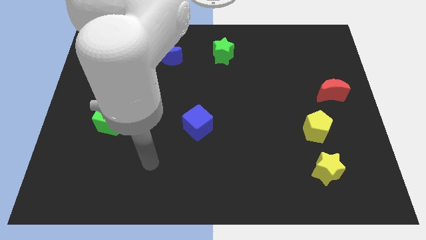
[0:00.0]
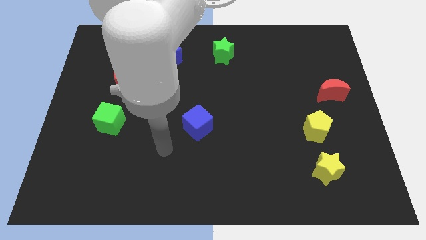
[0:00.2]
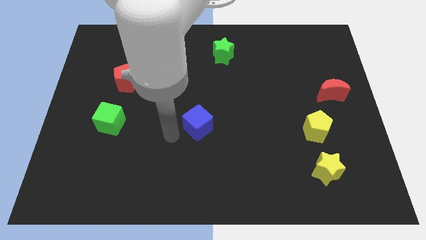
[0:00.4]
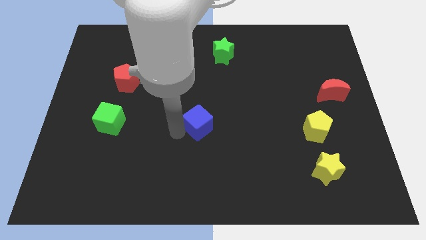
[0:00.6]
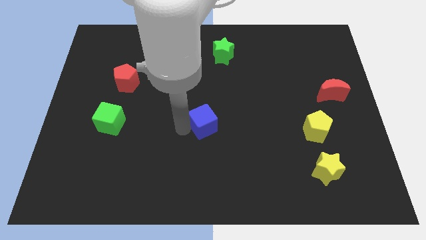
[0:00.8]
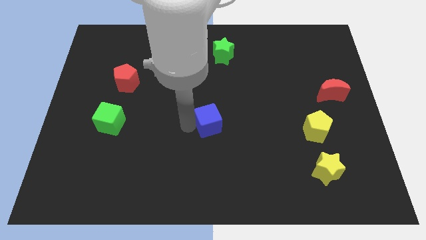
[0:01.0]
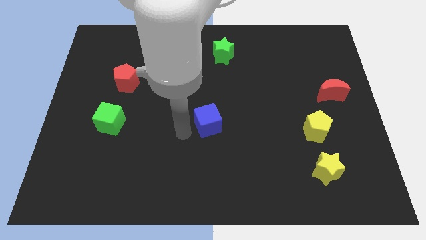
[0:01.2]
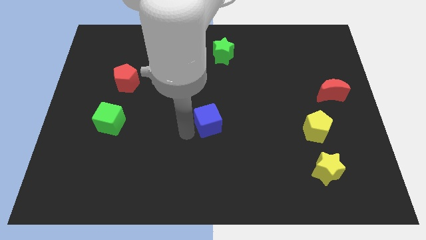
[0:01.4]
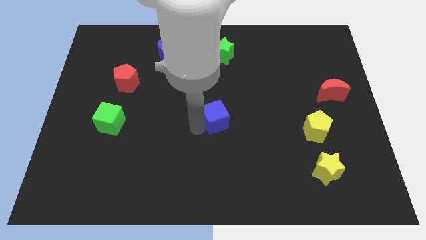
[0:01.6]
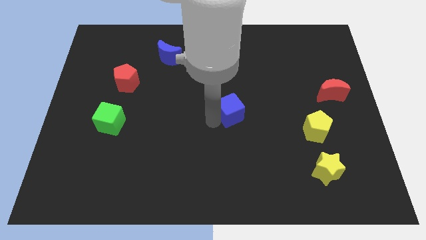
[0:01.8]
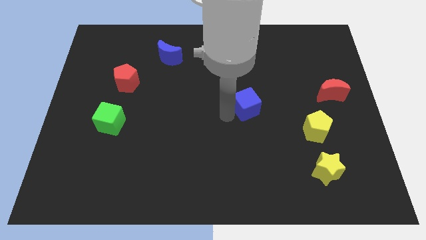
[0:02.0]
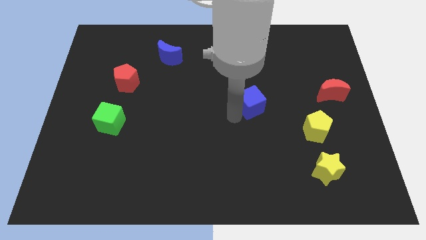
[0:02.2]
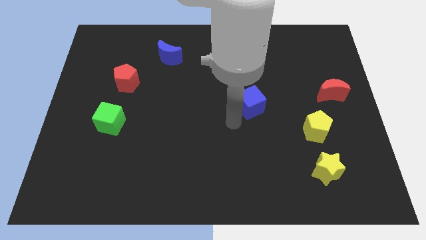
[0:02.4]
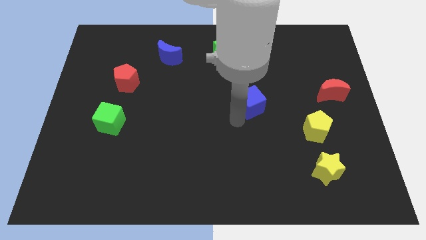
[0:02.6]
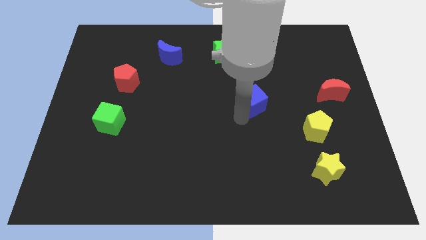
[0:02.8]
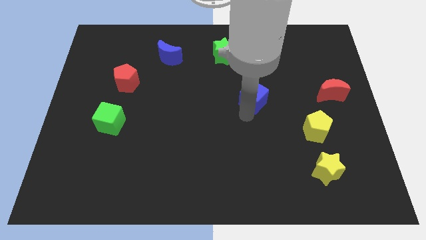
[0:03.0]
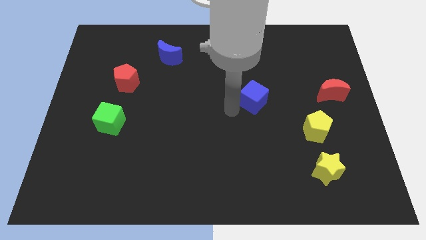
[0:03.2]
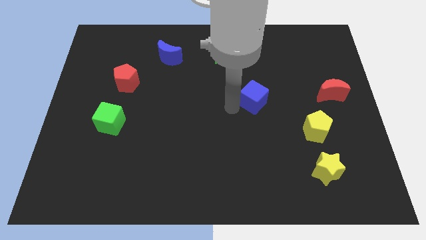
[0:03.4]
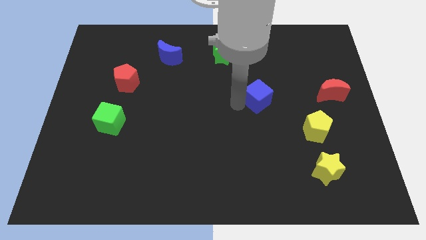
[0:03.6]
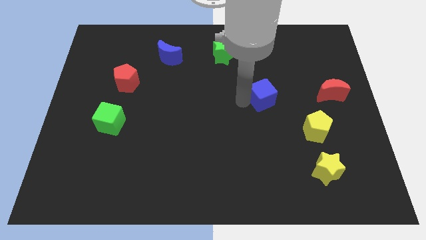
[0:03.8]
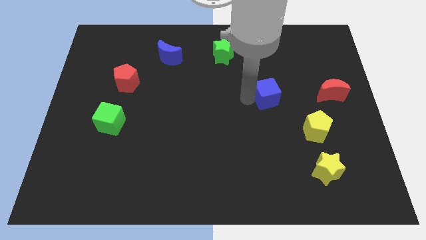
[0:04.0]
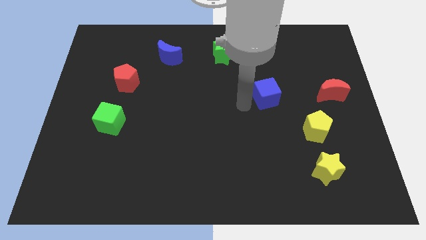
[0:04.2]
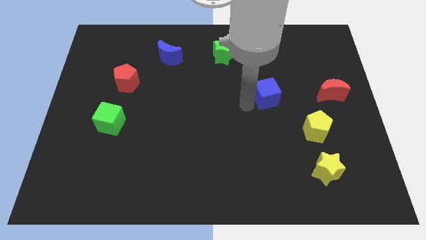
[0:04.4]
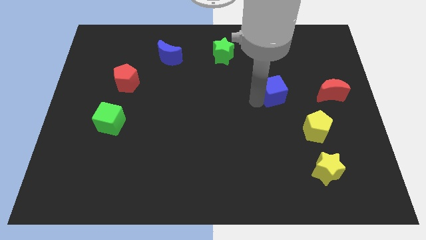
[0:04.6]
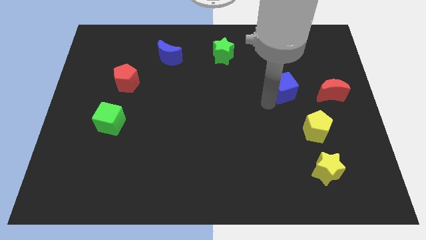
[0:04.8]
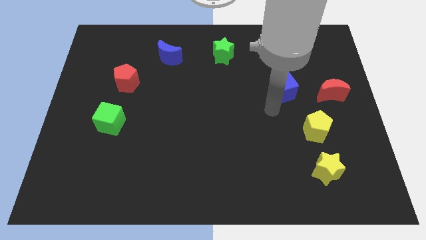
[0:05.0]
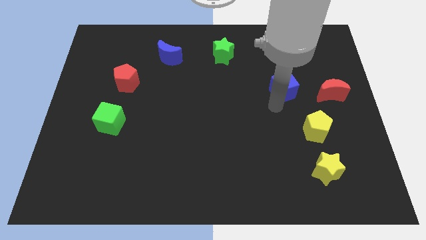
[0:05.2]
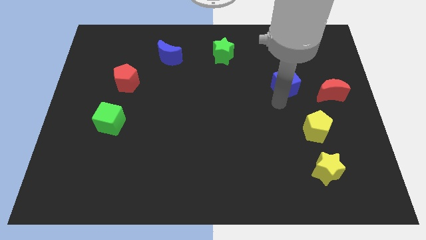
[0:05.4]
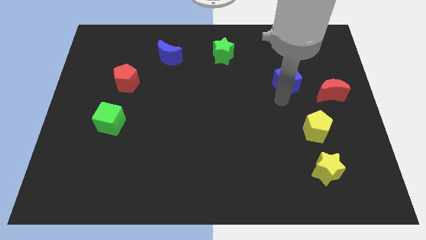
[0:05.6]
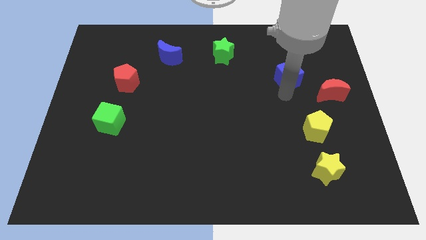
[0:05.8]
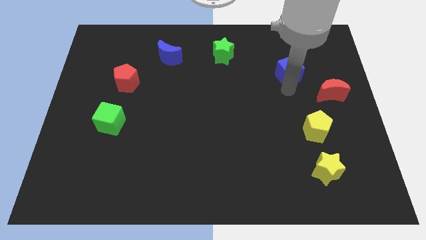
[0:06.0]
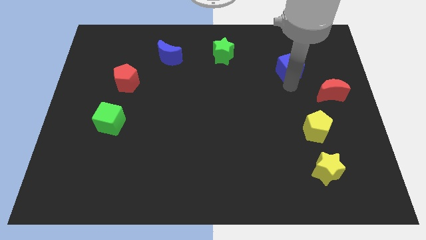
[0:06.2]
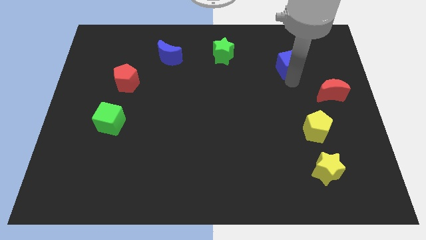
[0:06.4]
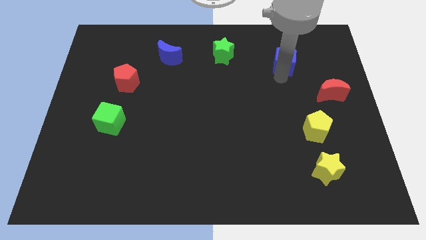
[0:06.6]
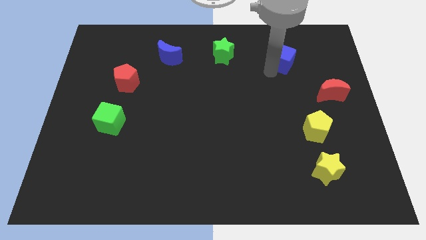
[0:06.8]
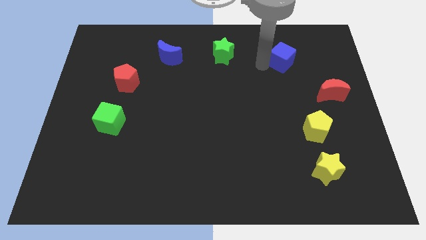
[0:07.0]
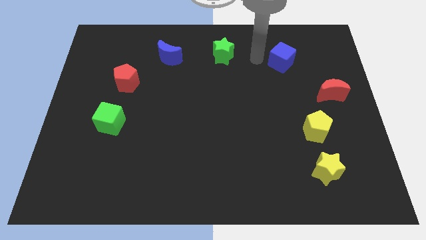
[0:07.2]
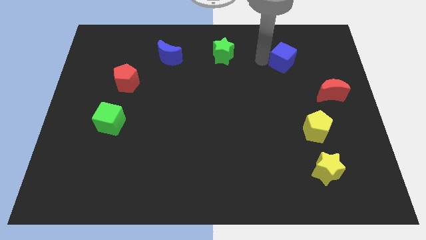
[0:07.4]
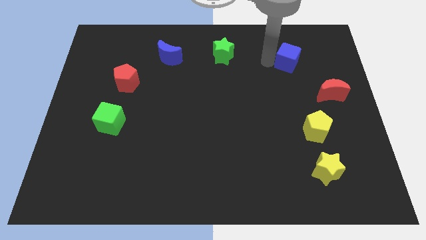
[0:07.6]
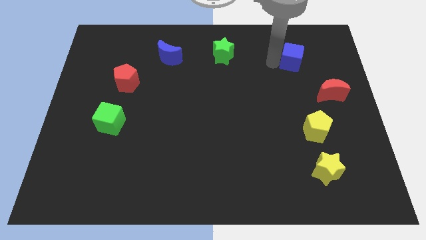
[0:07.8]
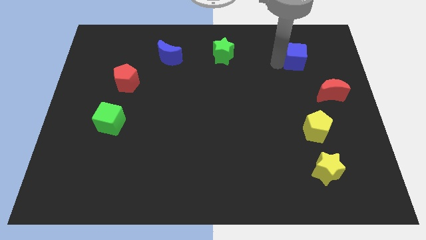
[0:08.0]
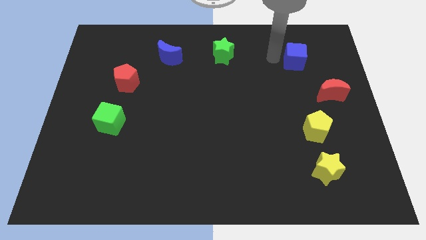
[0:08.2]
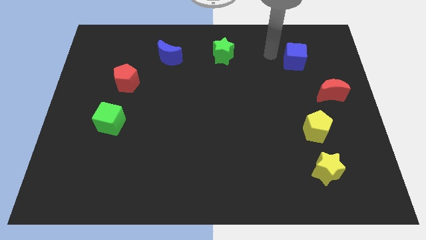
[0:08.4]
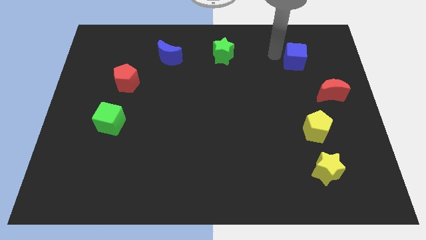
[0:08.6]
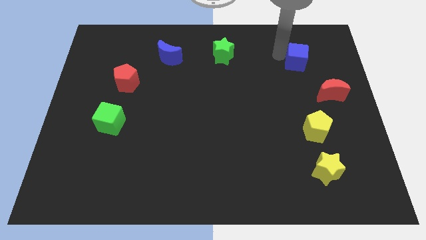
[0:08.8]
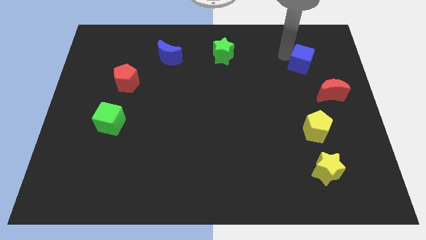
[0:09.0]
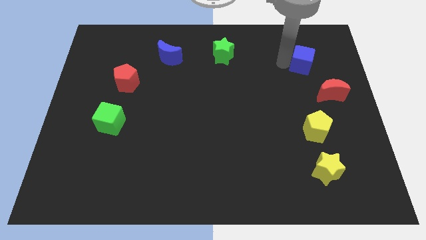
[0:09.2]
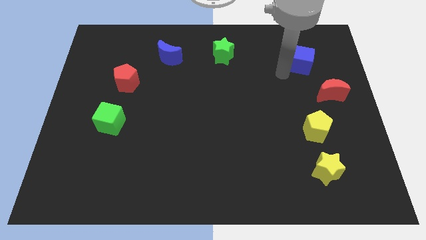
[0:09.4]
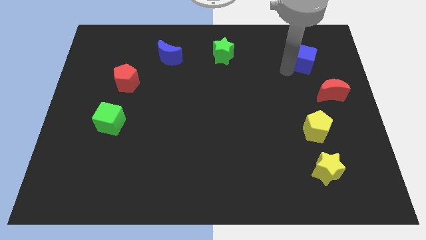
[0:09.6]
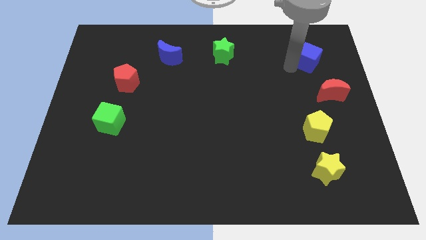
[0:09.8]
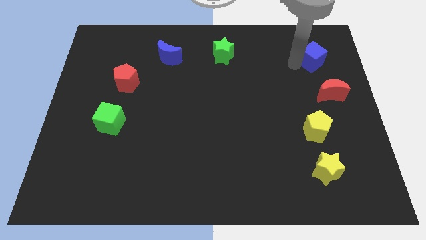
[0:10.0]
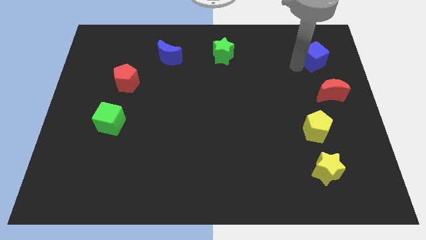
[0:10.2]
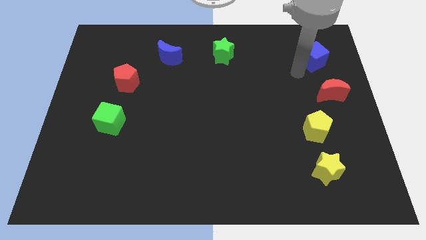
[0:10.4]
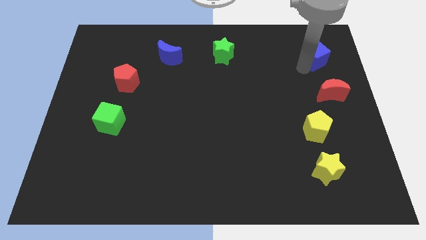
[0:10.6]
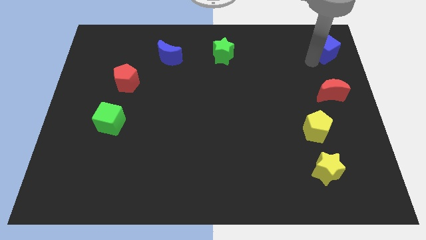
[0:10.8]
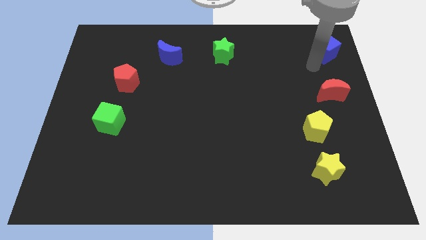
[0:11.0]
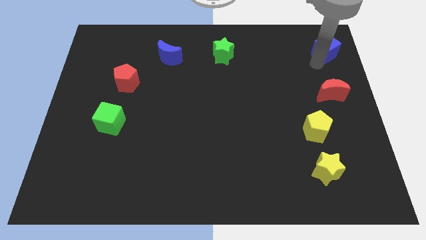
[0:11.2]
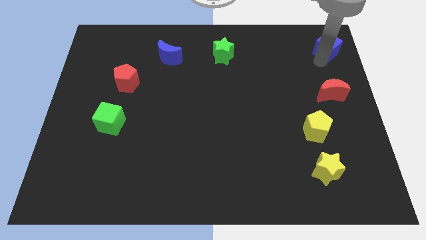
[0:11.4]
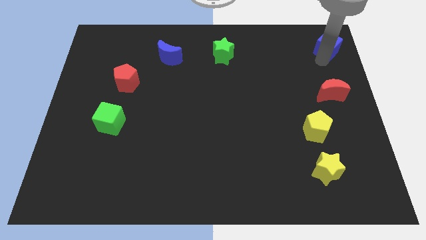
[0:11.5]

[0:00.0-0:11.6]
slide the blue cube to the upper right corner
